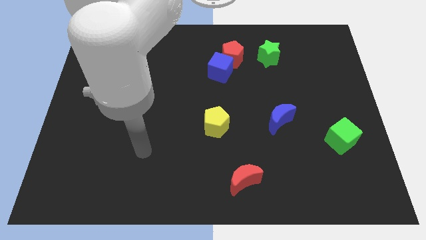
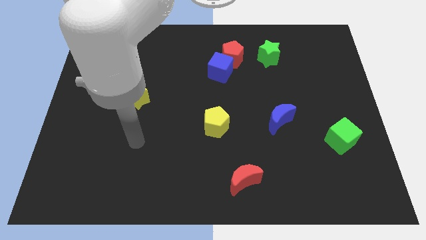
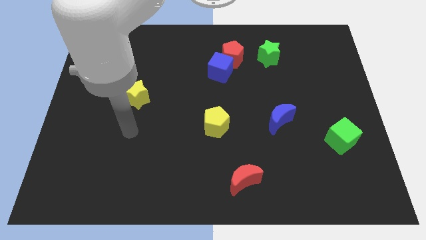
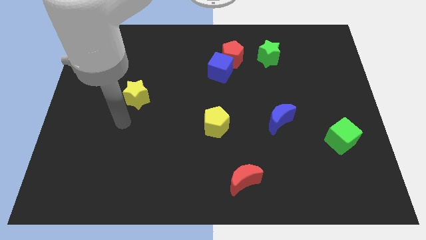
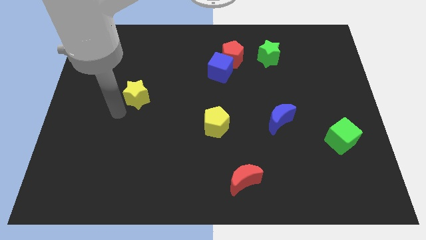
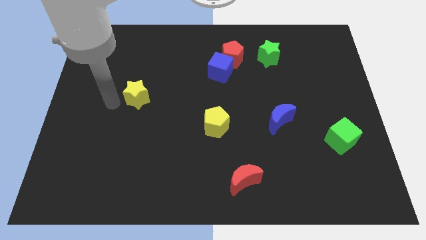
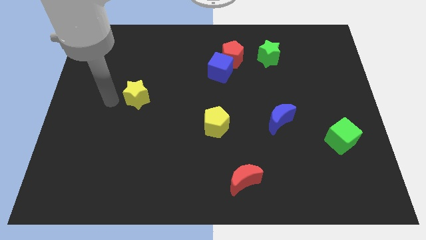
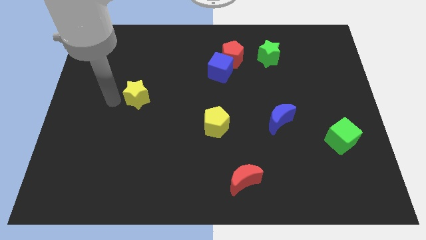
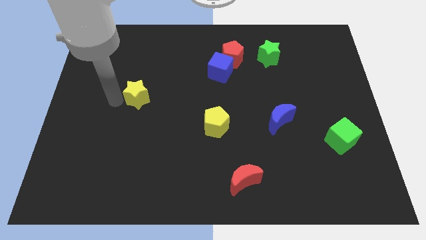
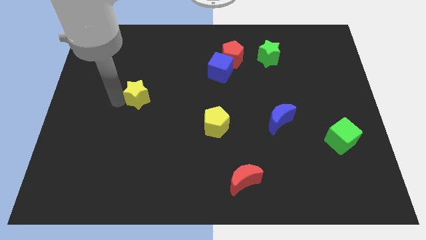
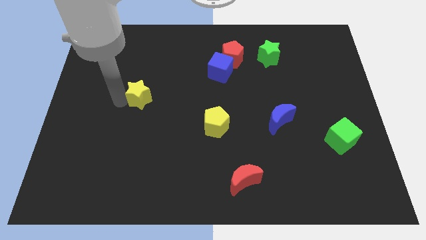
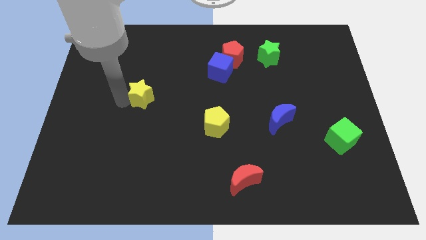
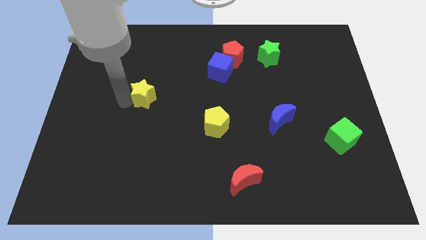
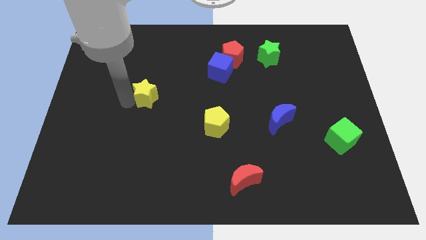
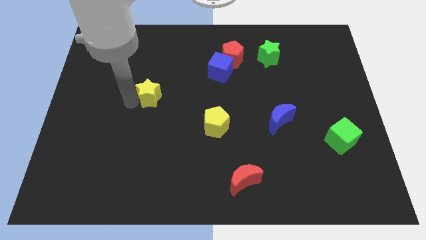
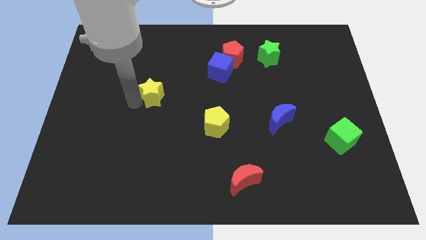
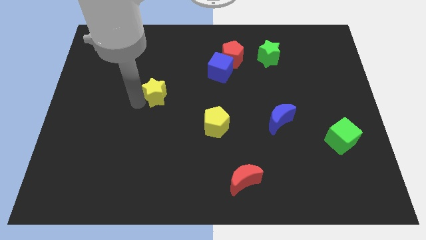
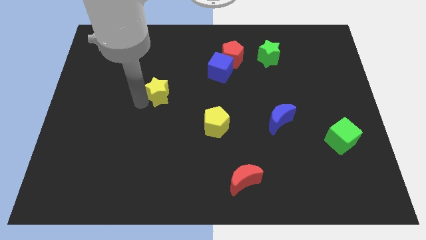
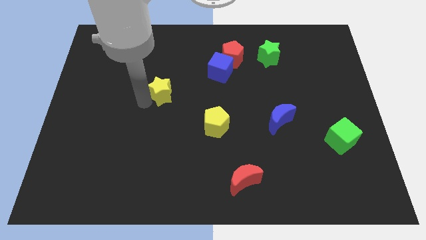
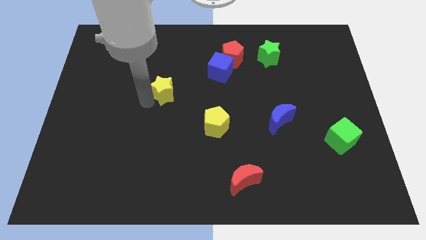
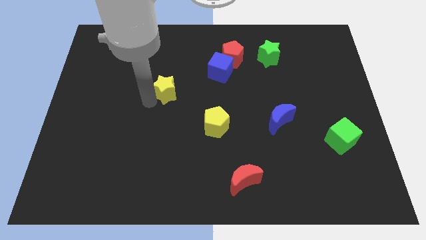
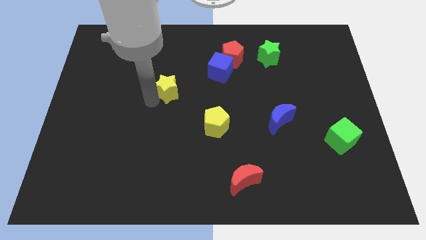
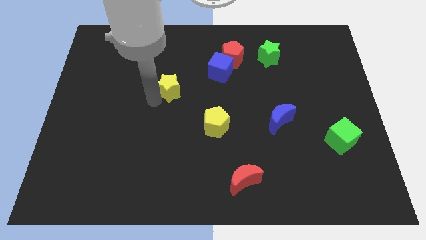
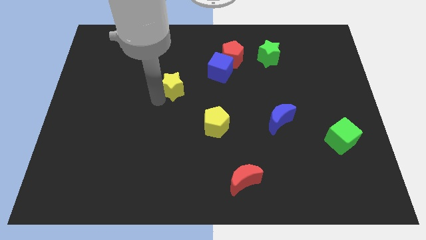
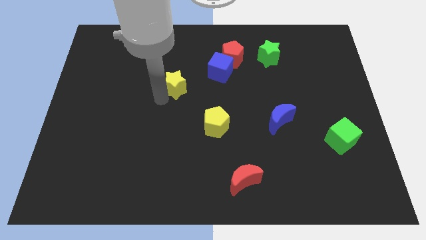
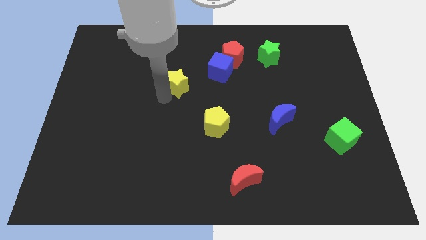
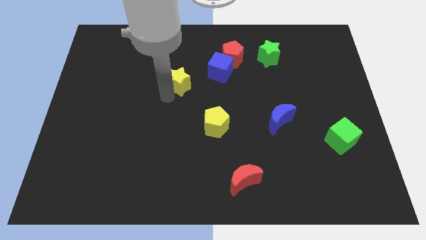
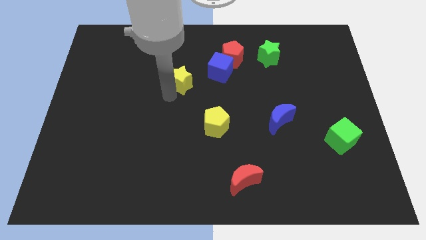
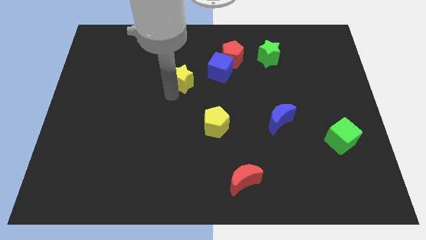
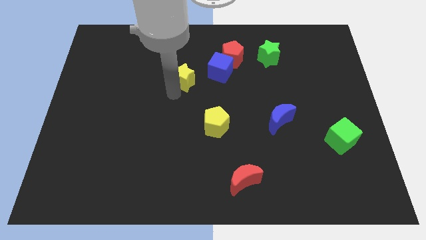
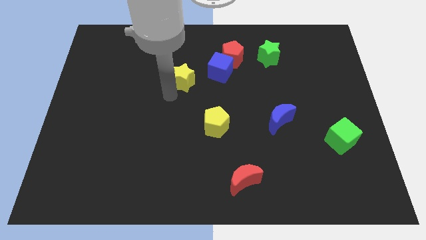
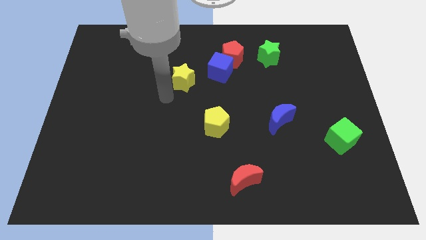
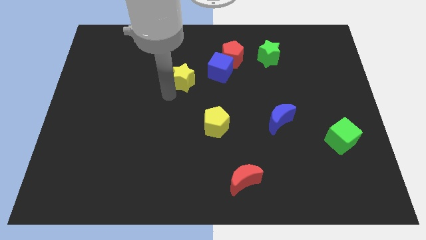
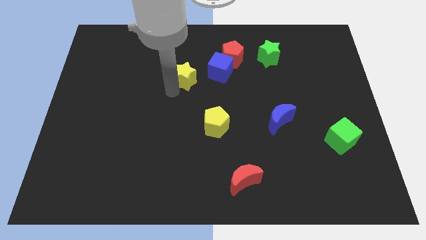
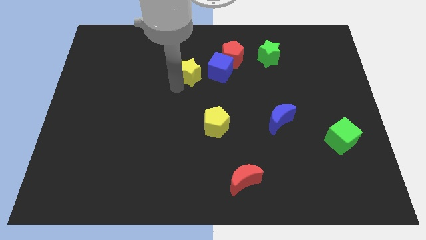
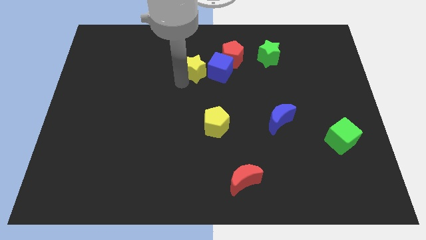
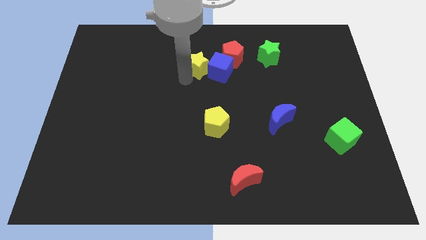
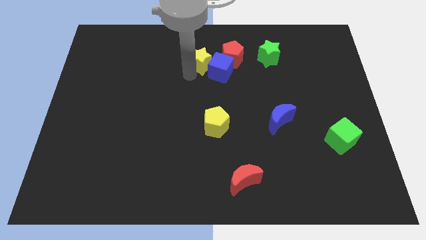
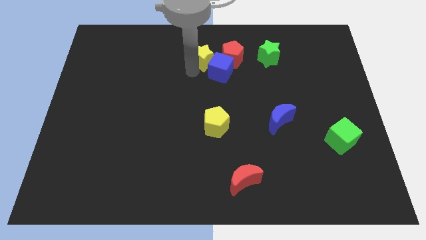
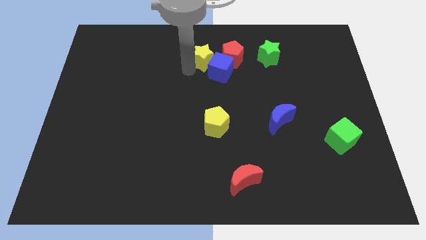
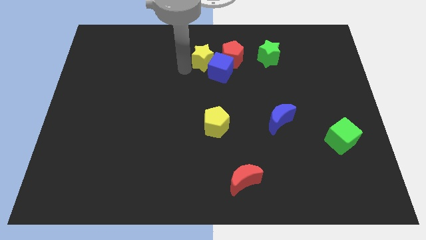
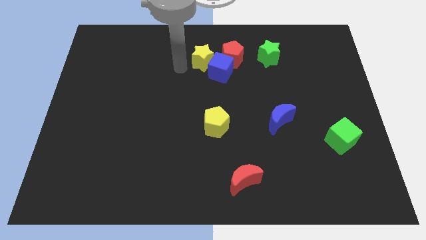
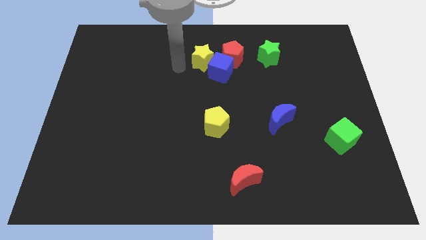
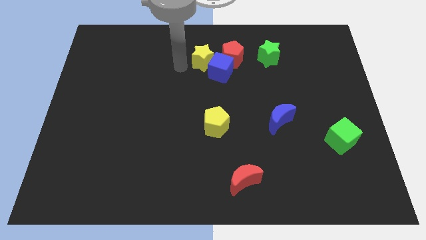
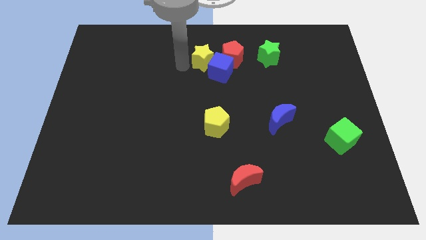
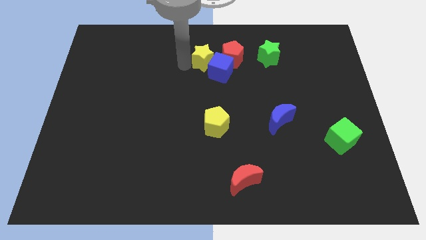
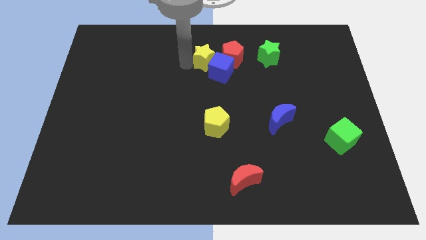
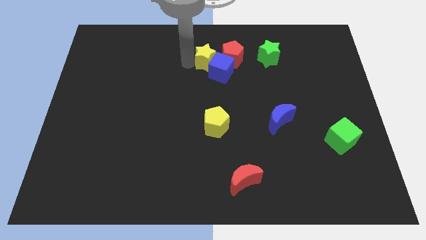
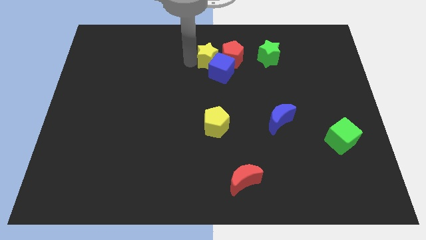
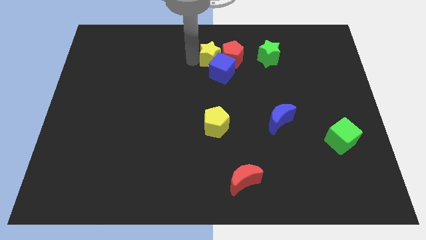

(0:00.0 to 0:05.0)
put the yellow star just left of the green star

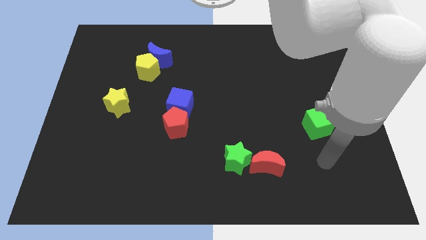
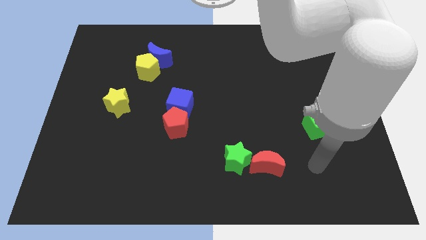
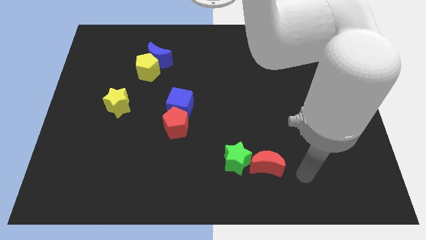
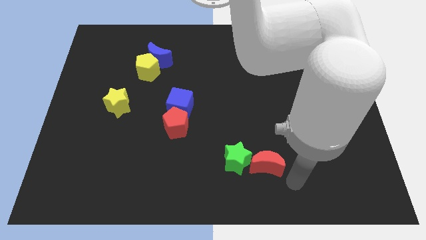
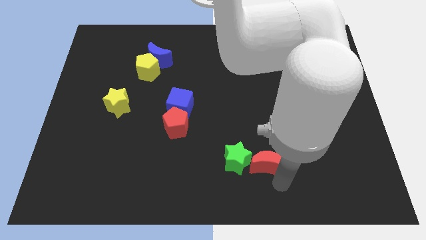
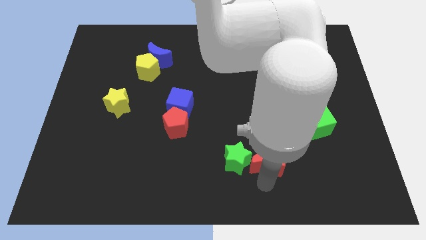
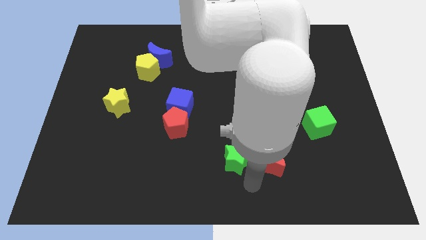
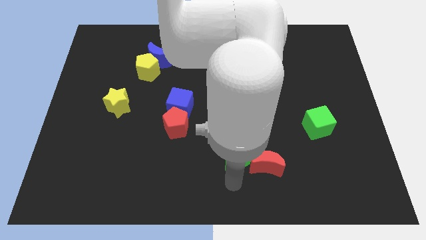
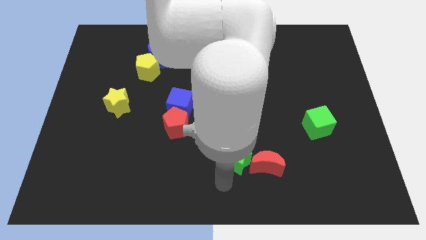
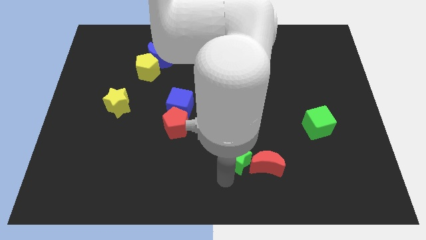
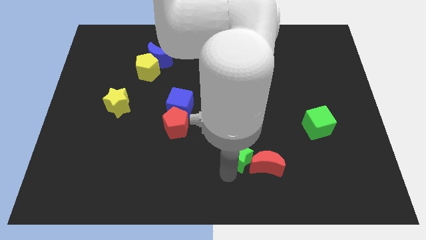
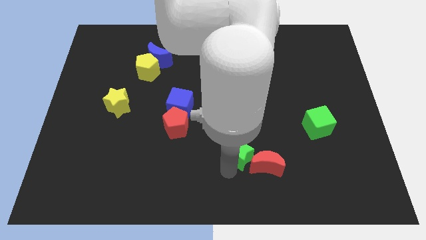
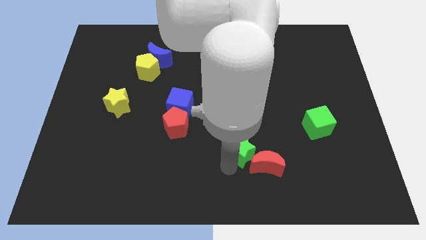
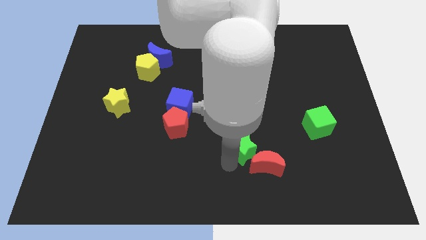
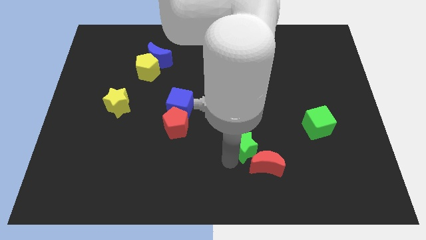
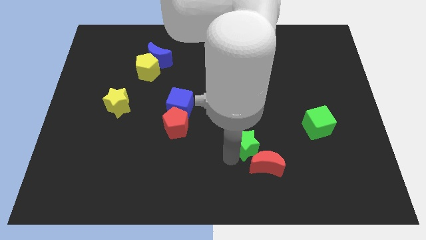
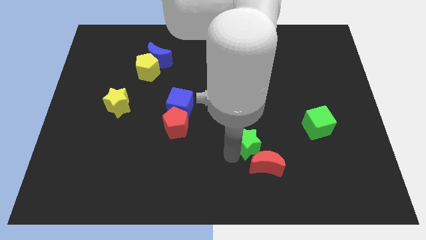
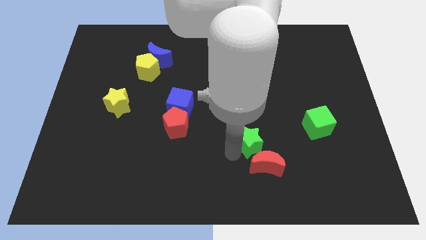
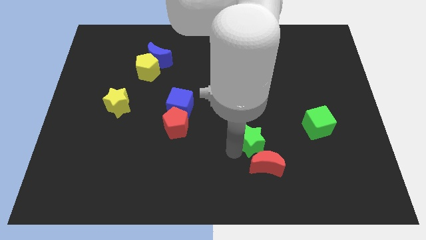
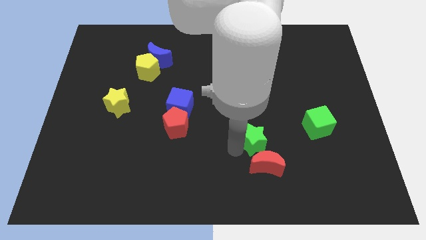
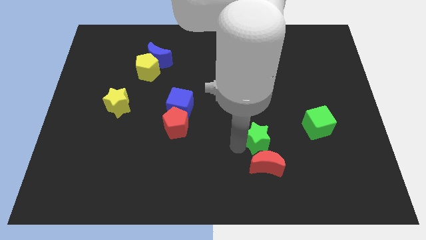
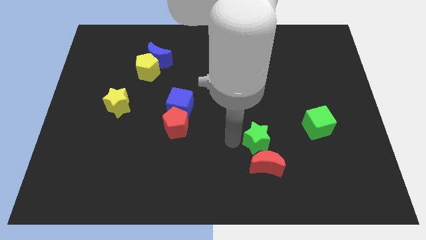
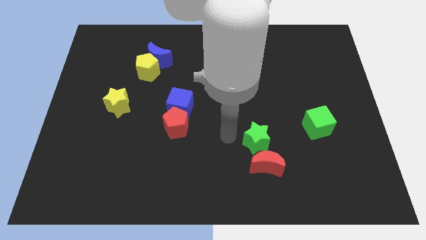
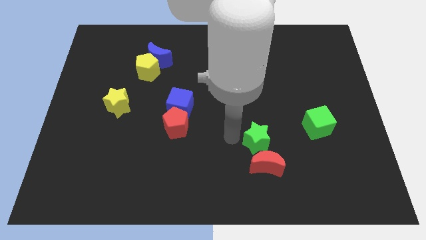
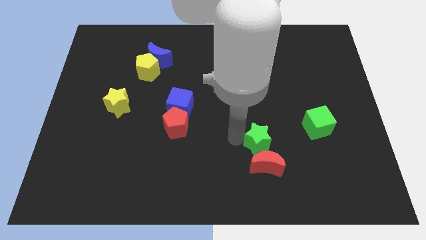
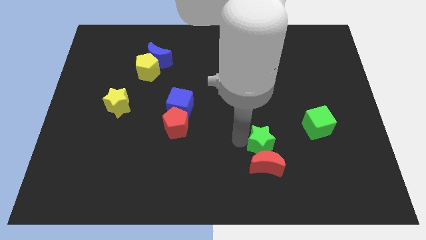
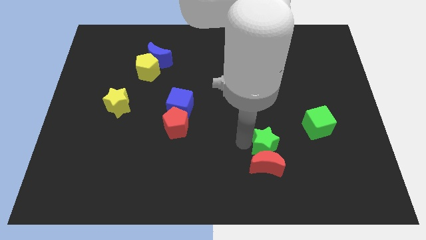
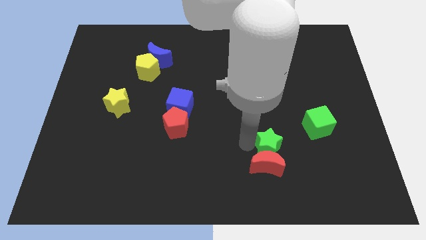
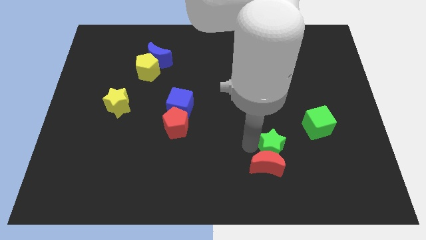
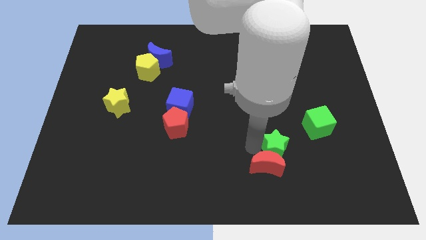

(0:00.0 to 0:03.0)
put the green star to the bottom left side of the green cube
